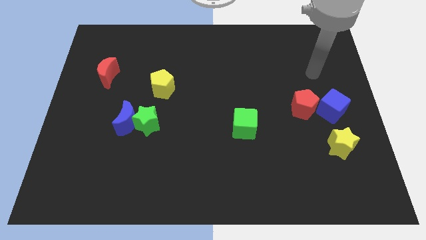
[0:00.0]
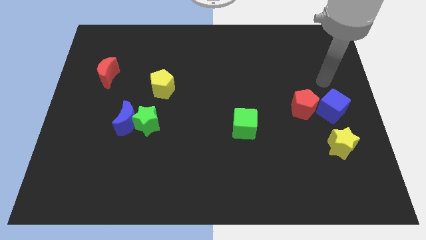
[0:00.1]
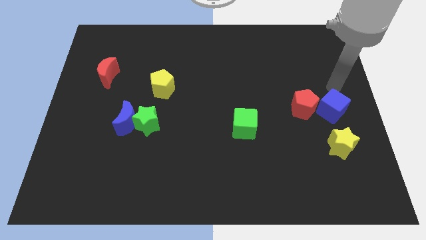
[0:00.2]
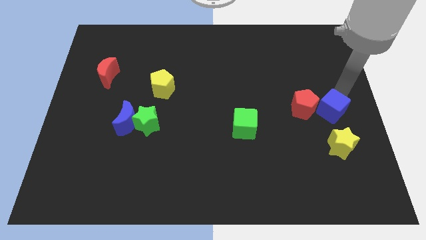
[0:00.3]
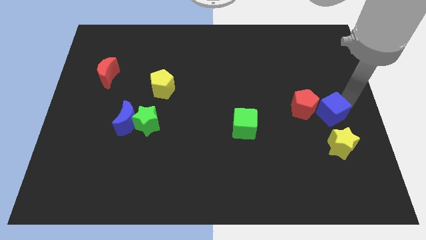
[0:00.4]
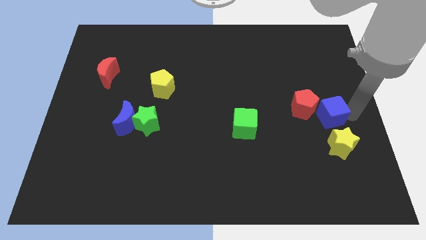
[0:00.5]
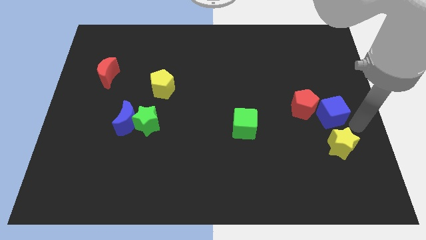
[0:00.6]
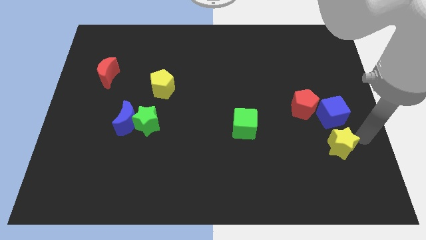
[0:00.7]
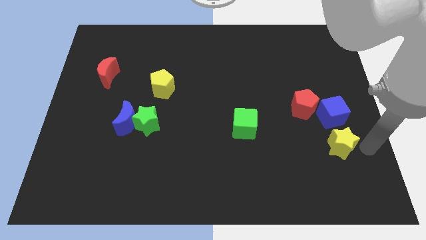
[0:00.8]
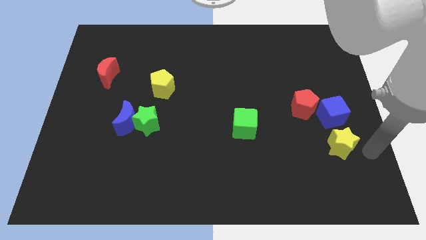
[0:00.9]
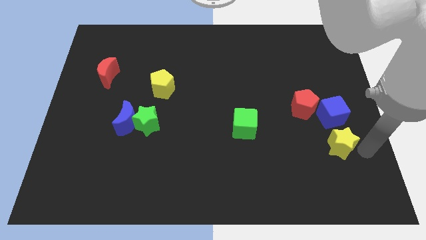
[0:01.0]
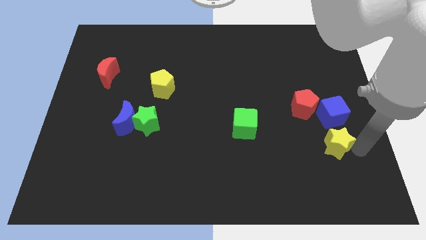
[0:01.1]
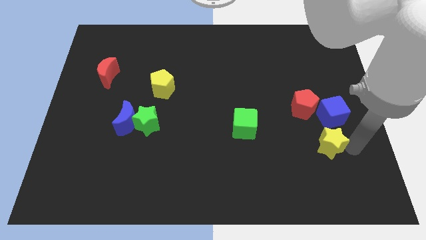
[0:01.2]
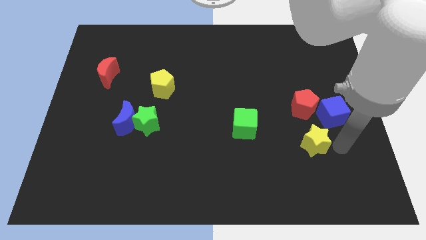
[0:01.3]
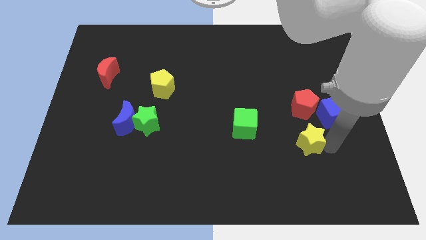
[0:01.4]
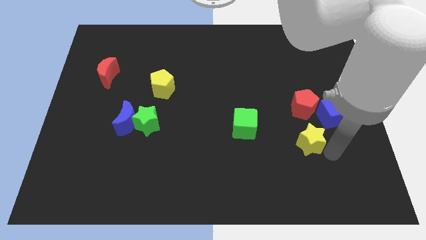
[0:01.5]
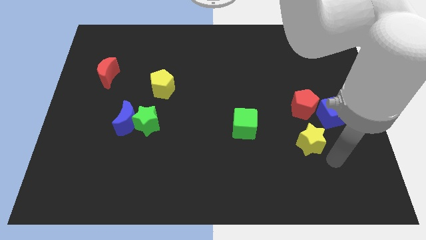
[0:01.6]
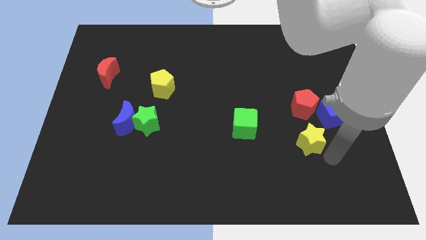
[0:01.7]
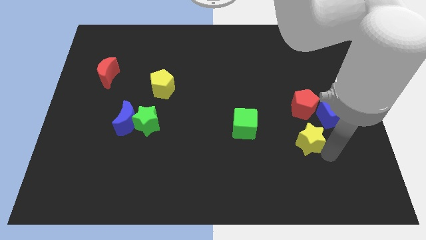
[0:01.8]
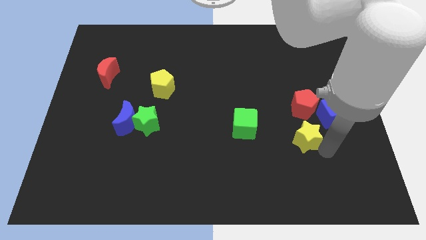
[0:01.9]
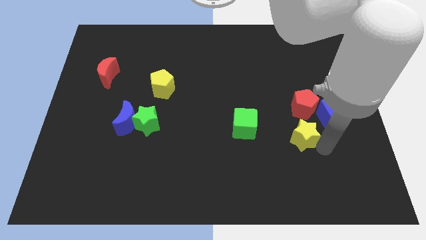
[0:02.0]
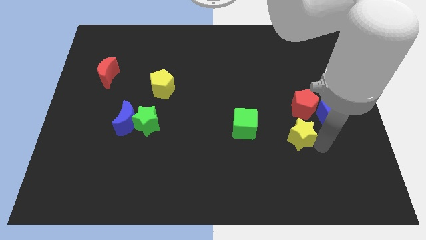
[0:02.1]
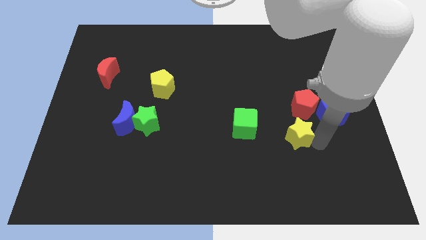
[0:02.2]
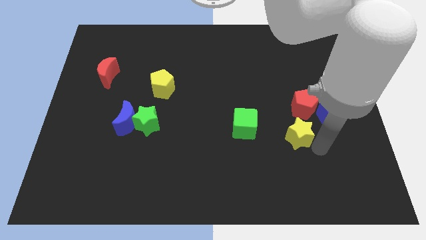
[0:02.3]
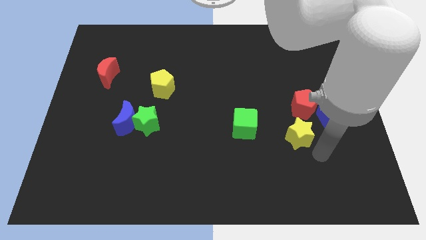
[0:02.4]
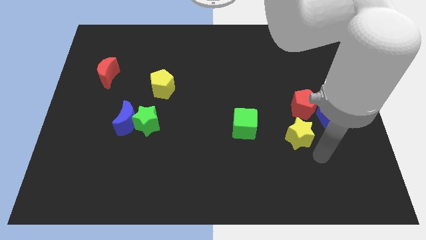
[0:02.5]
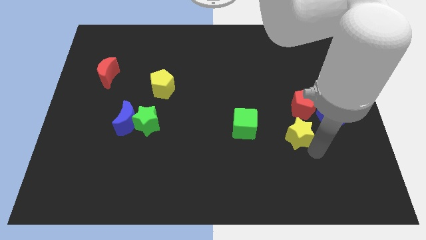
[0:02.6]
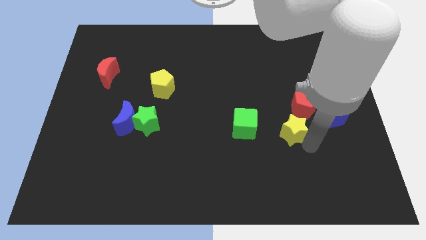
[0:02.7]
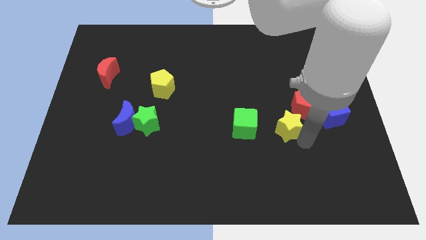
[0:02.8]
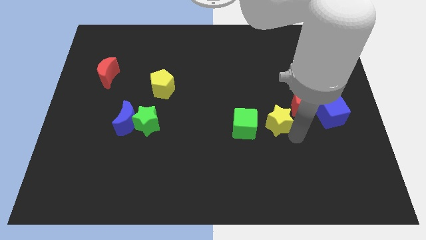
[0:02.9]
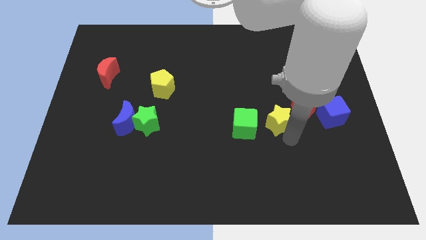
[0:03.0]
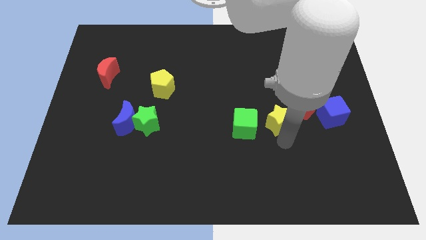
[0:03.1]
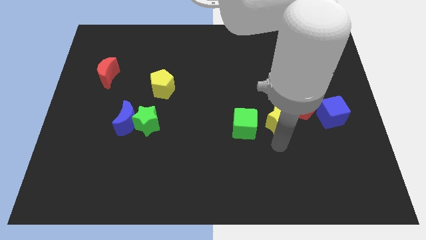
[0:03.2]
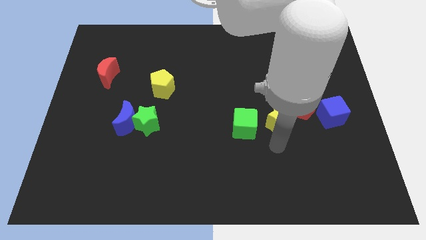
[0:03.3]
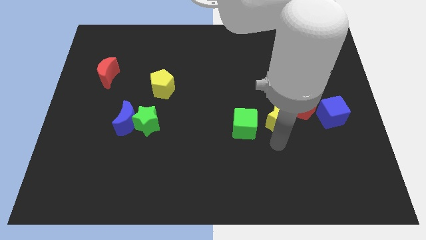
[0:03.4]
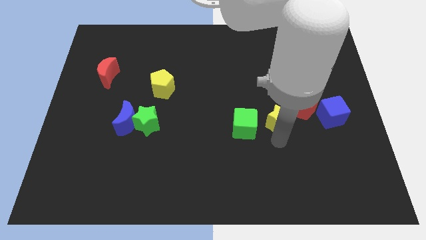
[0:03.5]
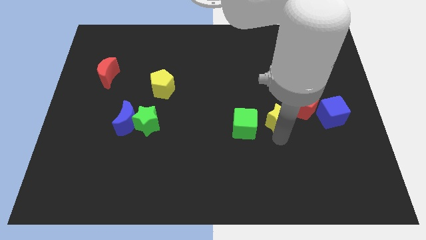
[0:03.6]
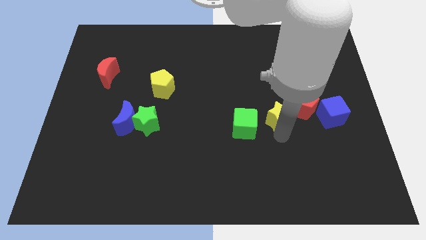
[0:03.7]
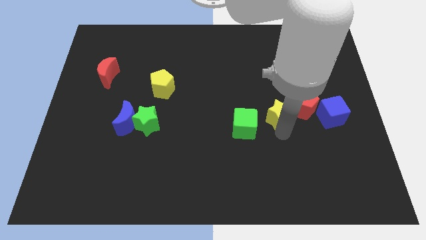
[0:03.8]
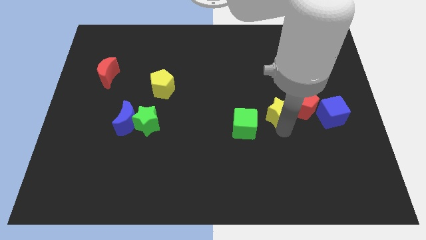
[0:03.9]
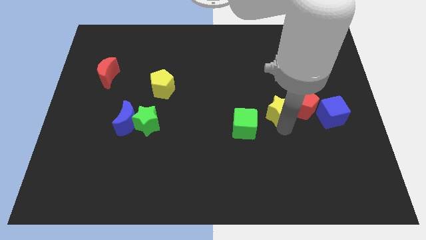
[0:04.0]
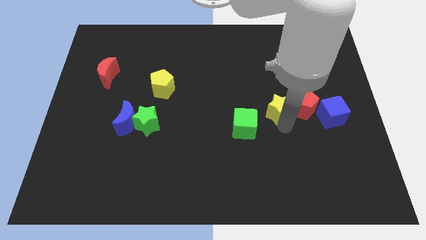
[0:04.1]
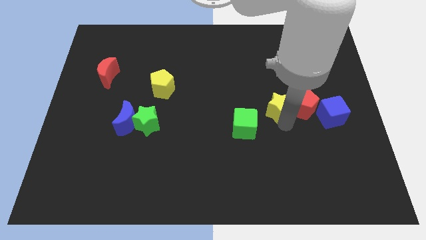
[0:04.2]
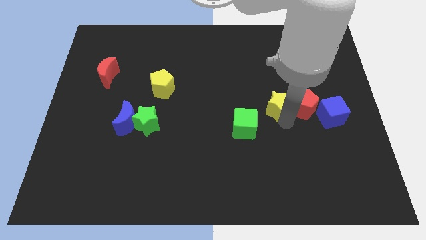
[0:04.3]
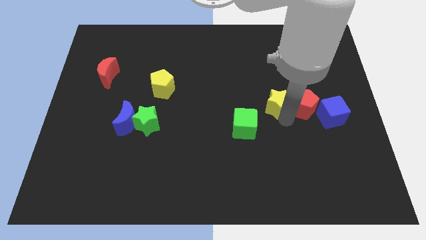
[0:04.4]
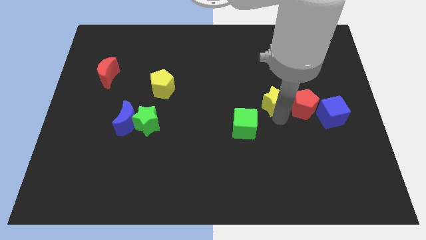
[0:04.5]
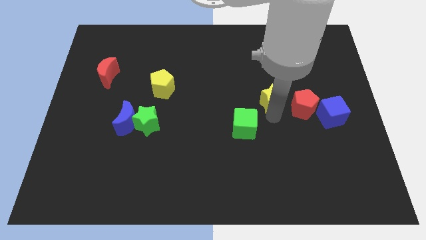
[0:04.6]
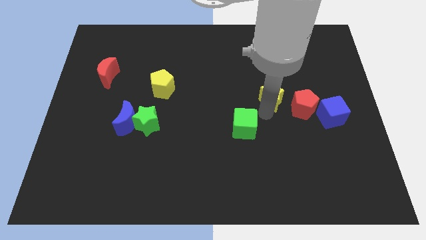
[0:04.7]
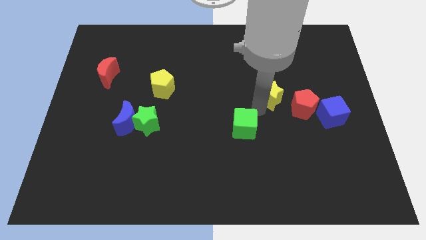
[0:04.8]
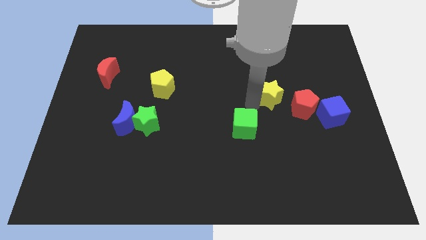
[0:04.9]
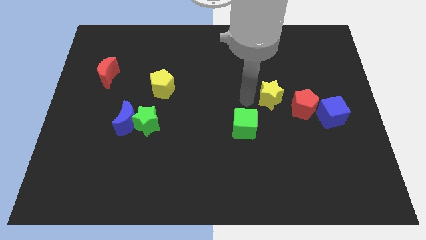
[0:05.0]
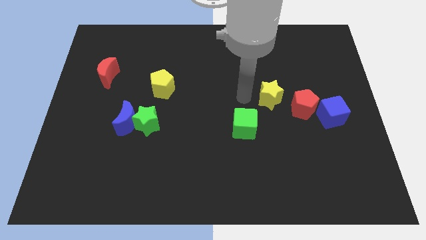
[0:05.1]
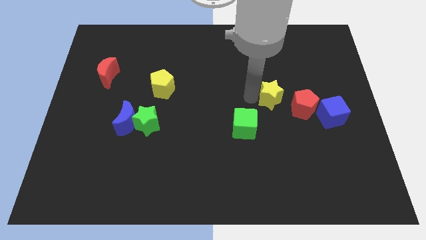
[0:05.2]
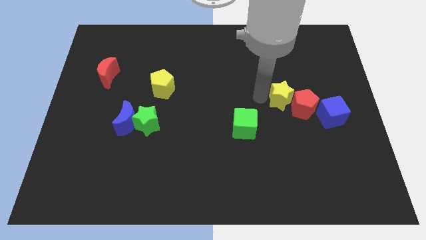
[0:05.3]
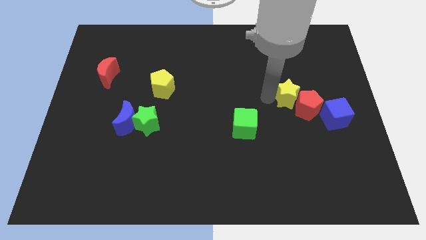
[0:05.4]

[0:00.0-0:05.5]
move the yellow star to the top left side of the blue cube

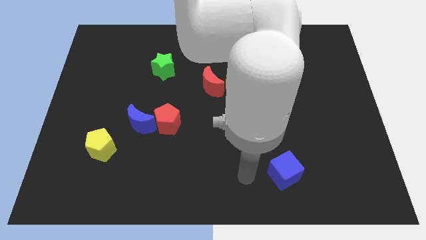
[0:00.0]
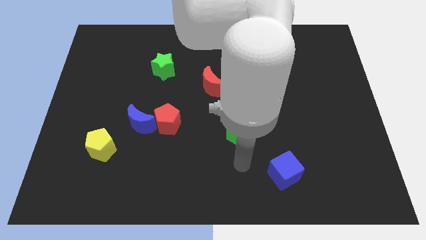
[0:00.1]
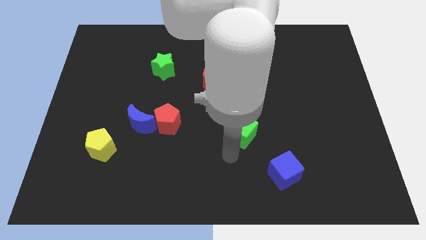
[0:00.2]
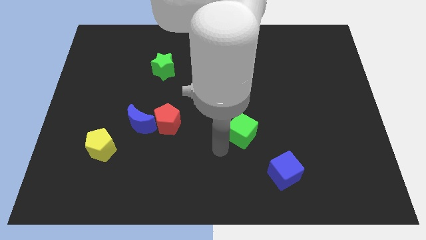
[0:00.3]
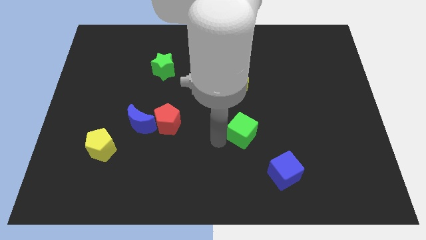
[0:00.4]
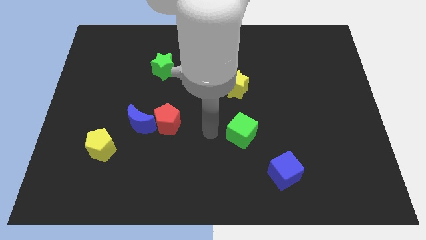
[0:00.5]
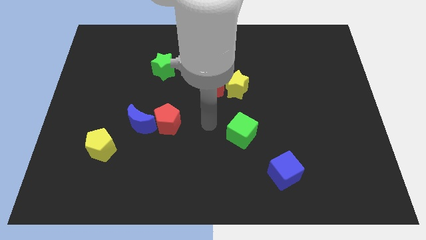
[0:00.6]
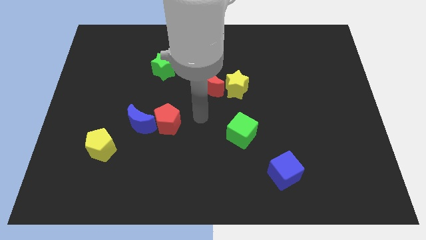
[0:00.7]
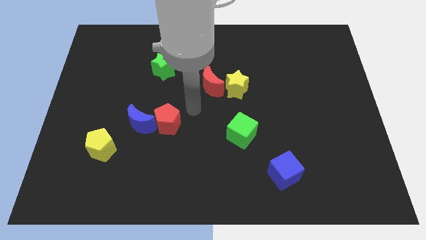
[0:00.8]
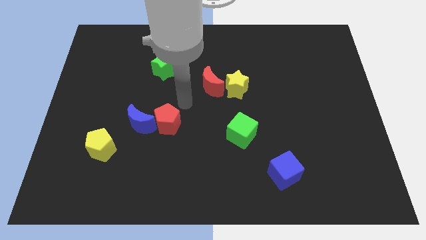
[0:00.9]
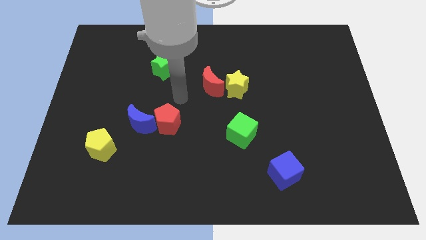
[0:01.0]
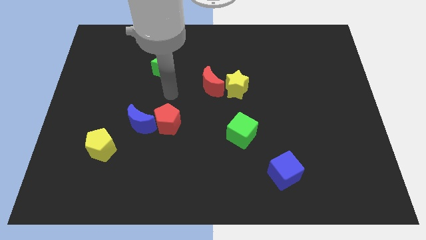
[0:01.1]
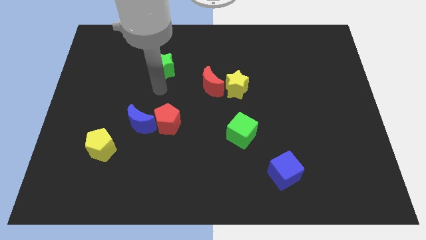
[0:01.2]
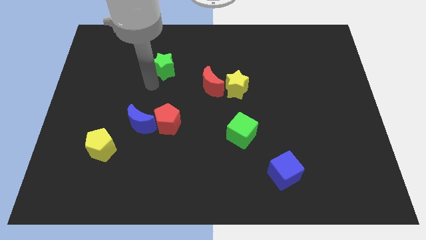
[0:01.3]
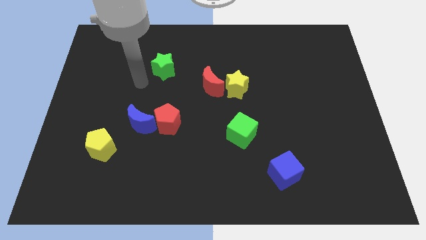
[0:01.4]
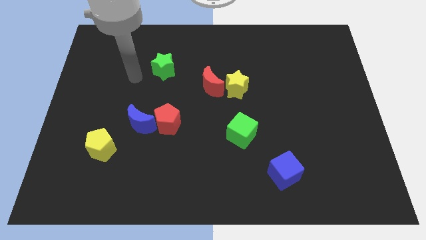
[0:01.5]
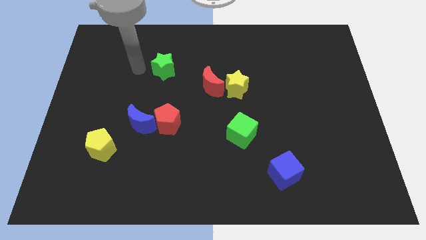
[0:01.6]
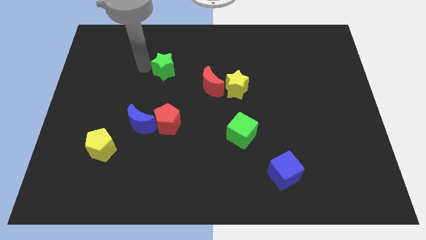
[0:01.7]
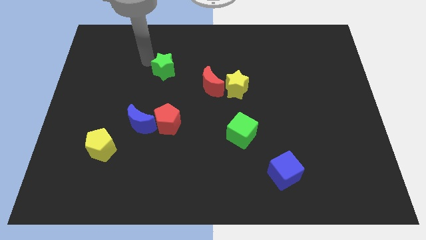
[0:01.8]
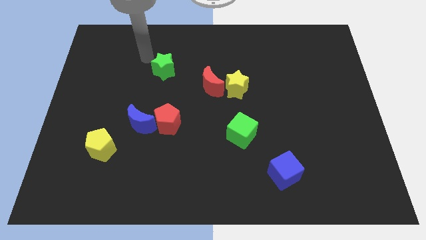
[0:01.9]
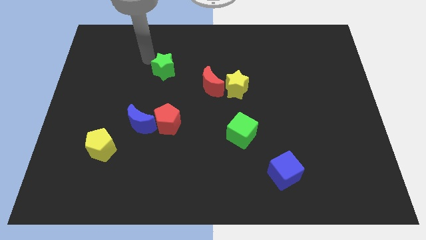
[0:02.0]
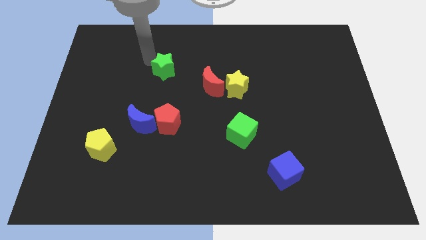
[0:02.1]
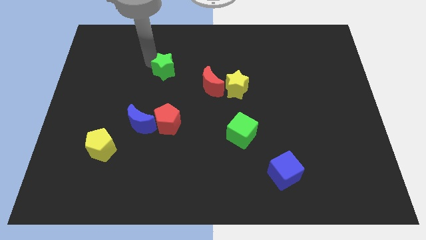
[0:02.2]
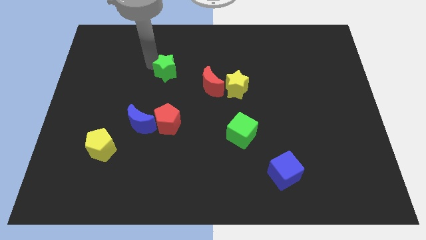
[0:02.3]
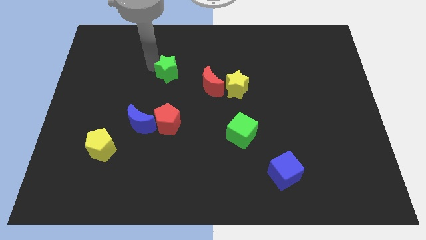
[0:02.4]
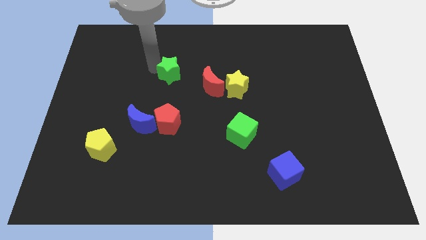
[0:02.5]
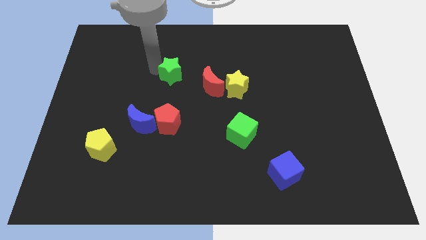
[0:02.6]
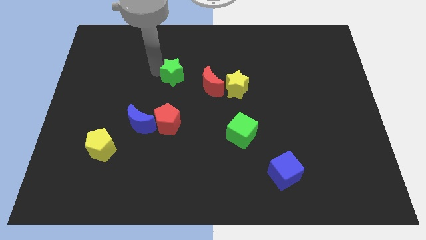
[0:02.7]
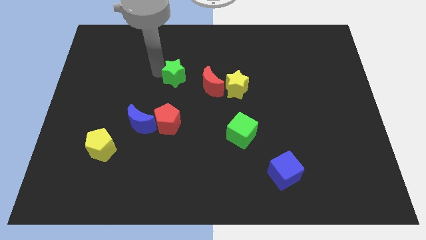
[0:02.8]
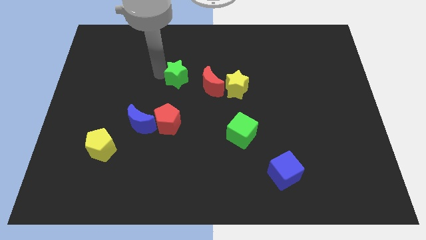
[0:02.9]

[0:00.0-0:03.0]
put the green star to the left side of the yellow star

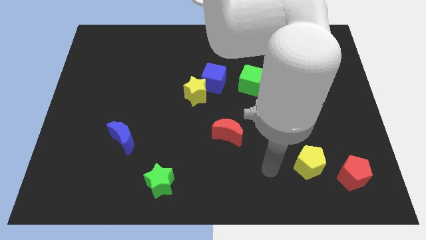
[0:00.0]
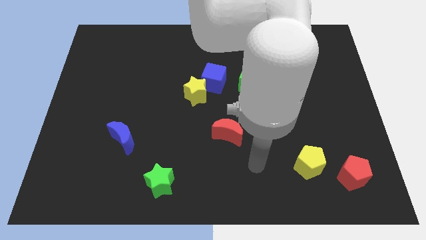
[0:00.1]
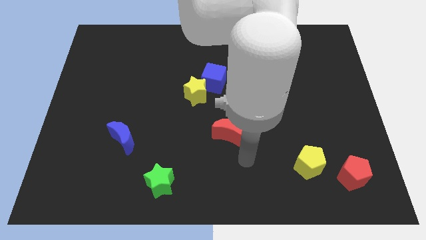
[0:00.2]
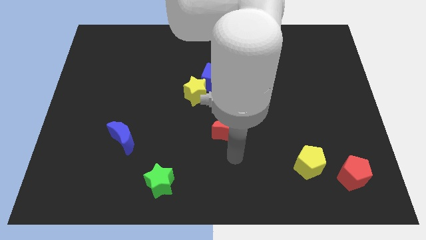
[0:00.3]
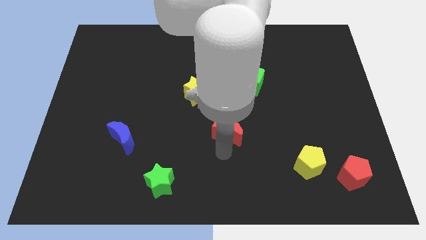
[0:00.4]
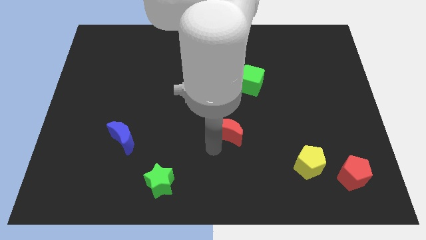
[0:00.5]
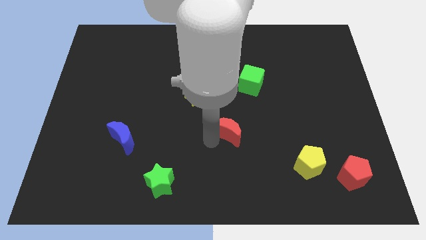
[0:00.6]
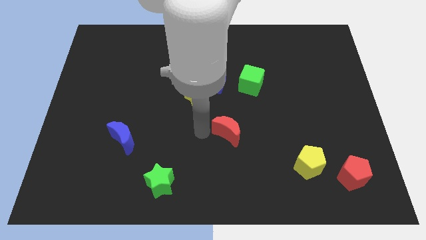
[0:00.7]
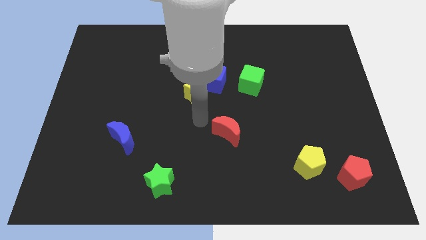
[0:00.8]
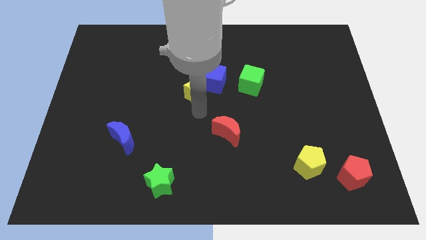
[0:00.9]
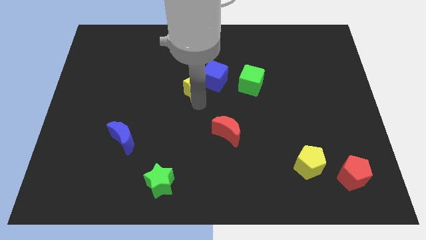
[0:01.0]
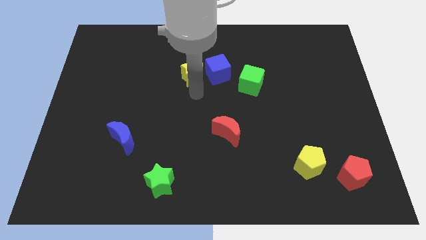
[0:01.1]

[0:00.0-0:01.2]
push the blue cube to the top left of the green cube
